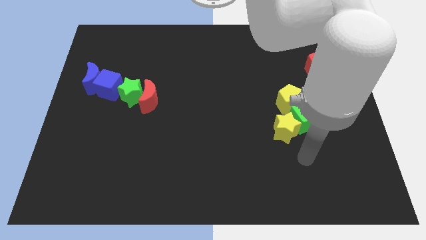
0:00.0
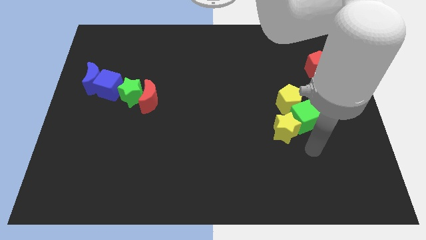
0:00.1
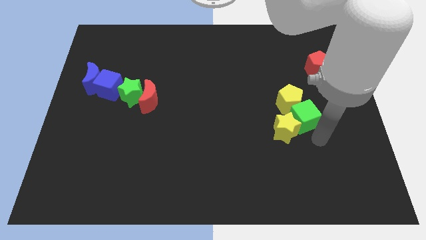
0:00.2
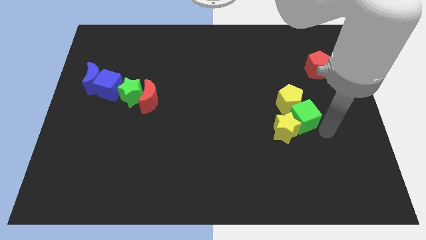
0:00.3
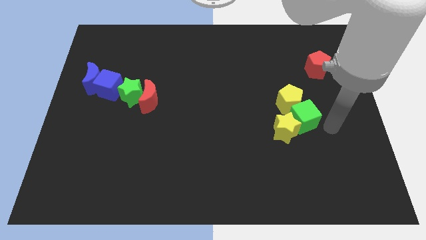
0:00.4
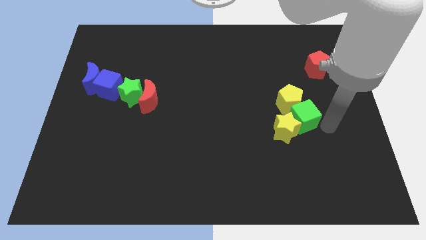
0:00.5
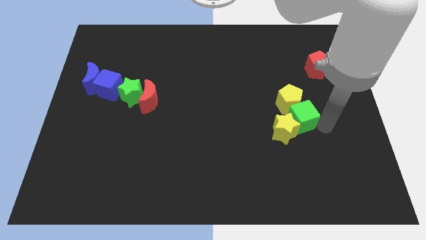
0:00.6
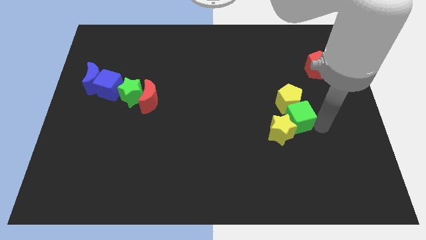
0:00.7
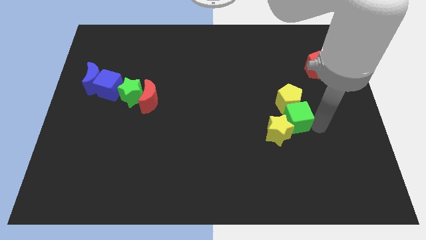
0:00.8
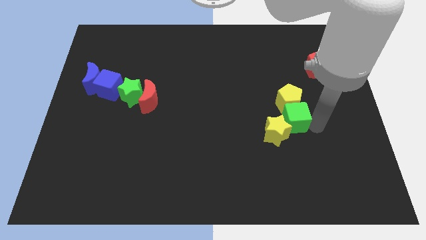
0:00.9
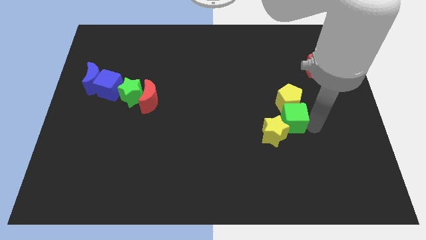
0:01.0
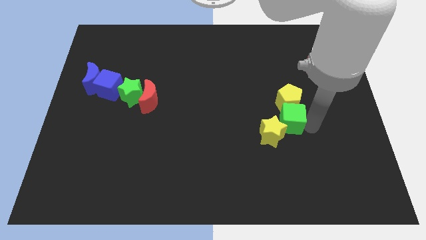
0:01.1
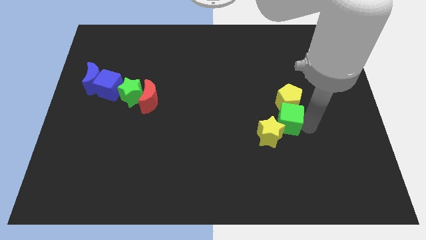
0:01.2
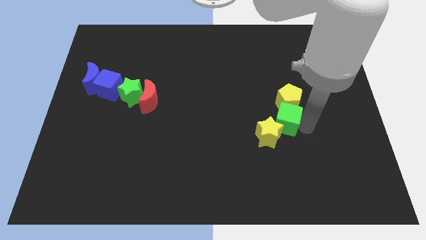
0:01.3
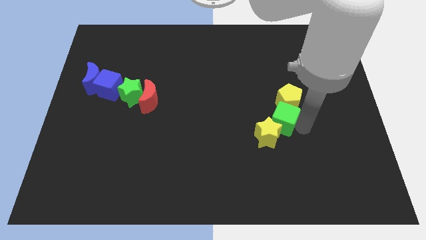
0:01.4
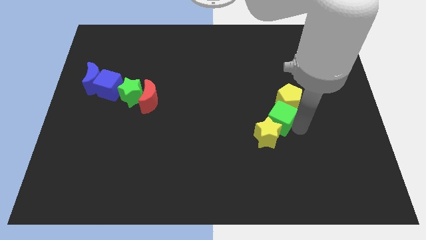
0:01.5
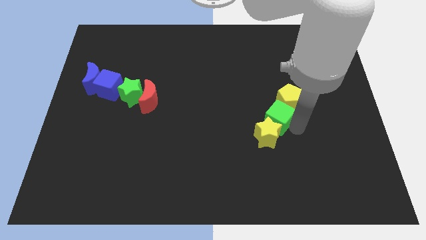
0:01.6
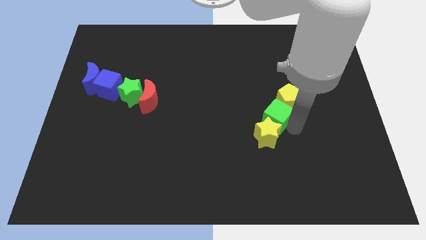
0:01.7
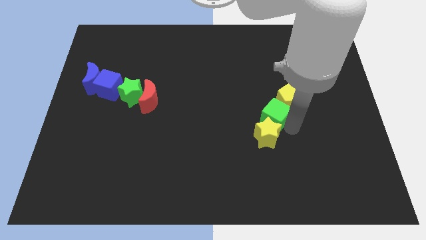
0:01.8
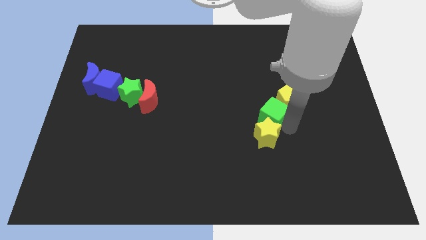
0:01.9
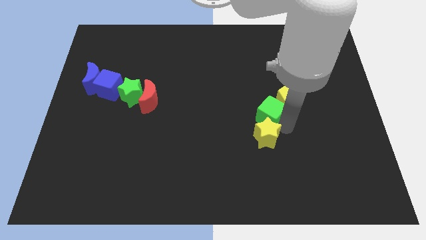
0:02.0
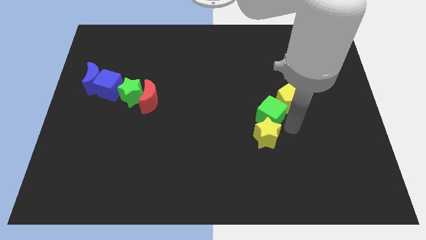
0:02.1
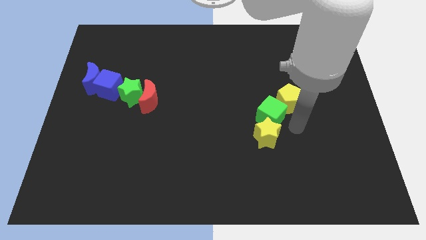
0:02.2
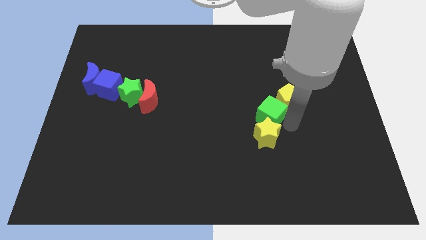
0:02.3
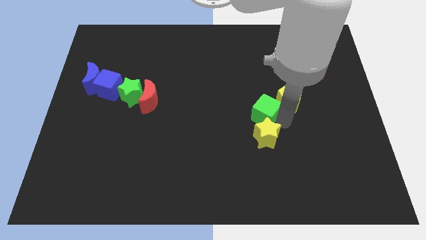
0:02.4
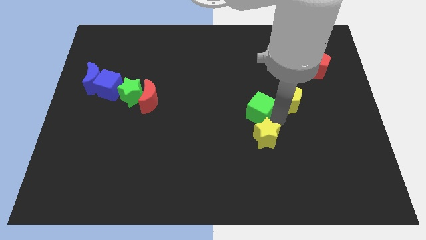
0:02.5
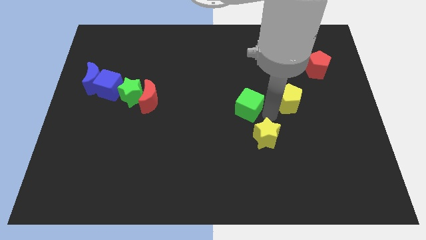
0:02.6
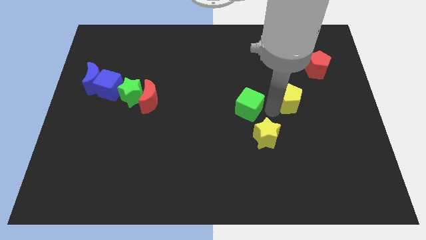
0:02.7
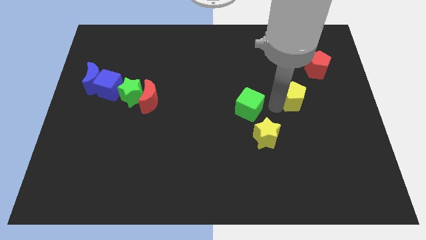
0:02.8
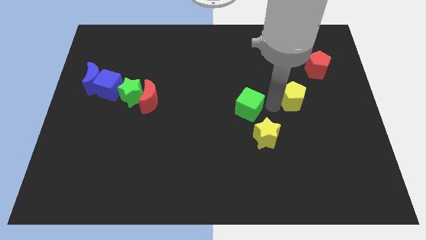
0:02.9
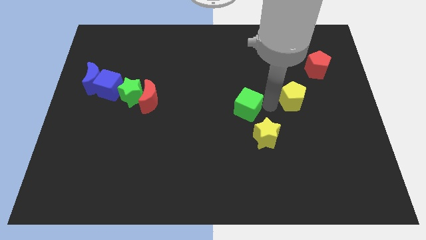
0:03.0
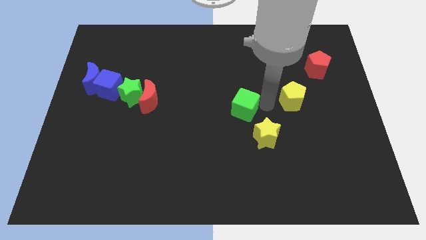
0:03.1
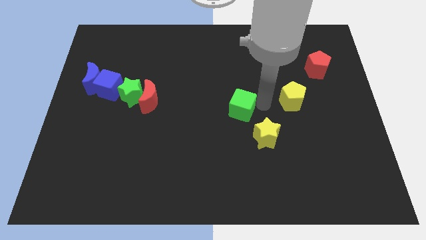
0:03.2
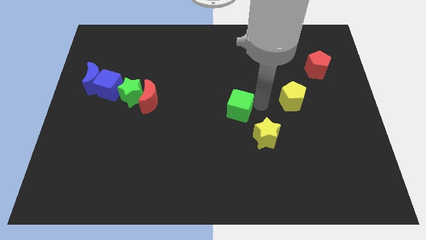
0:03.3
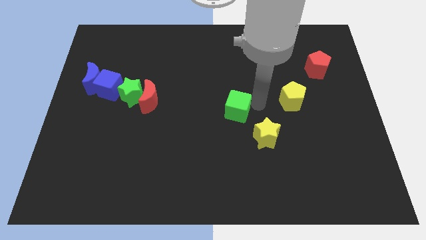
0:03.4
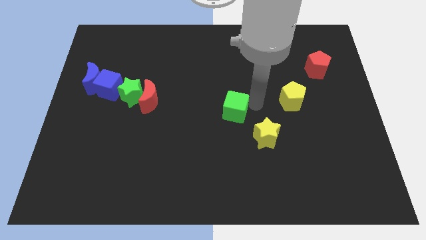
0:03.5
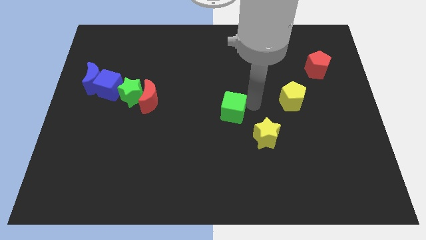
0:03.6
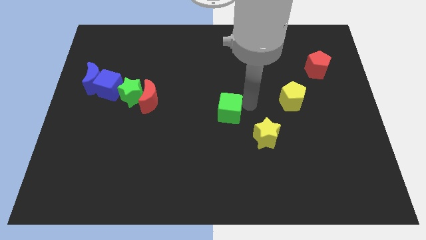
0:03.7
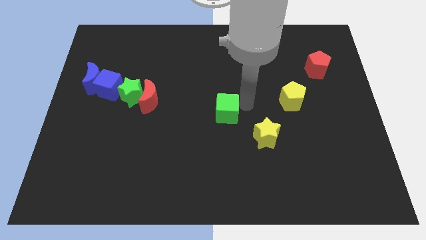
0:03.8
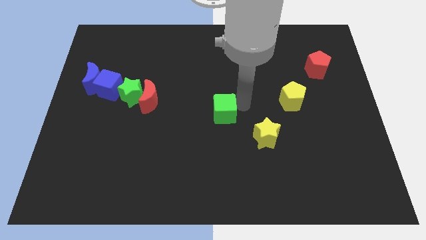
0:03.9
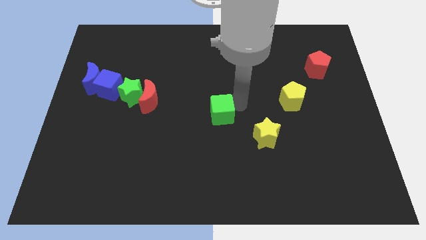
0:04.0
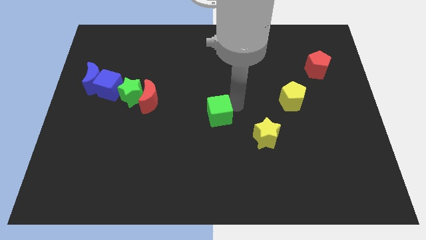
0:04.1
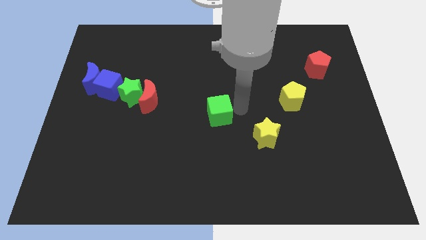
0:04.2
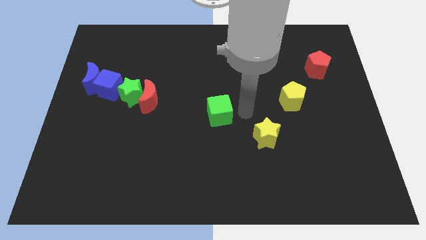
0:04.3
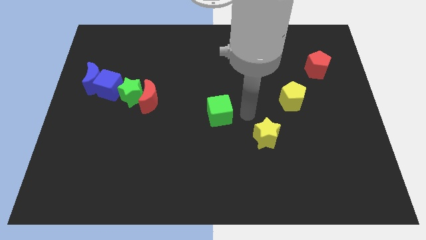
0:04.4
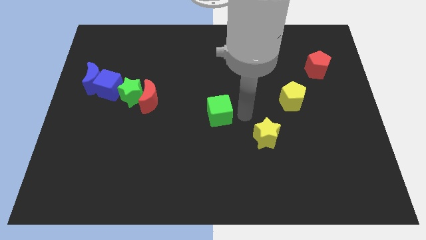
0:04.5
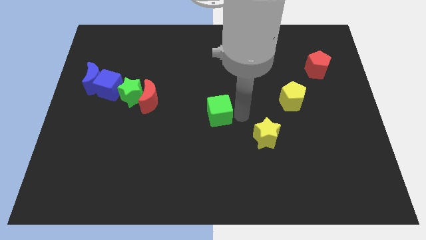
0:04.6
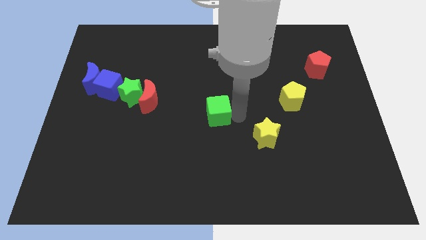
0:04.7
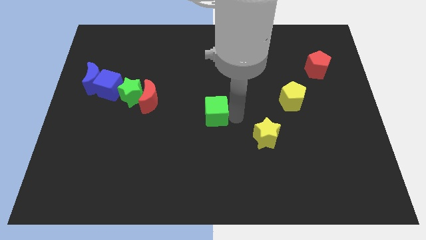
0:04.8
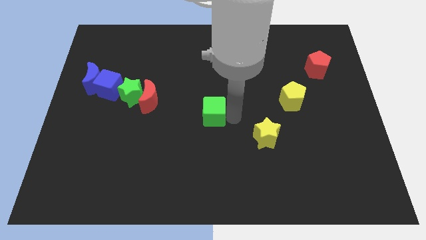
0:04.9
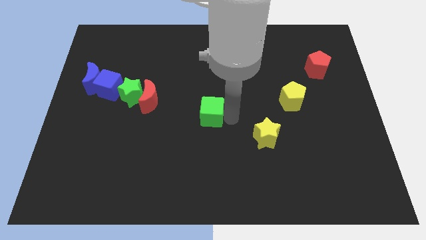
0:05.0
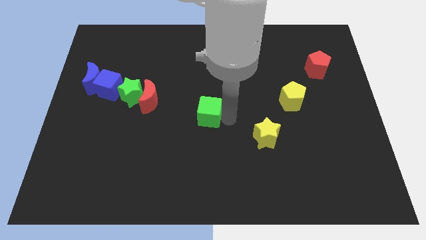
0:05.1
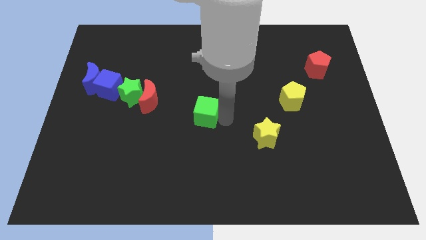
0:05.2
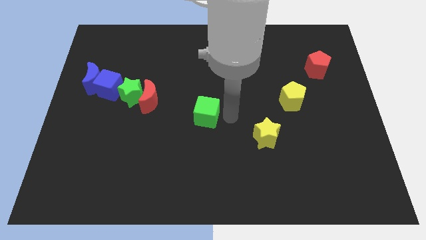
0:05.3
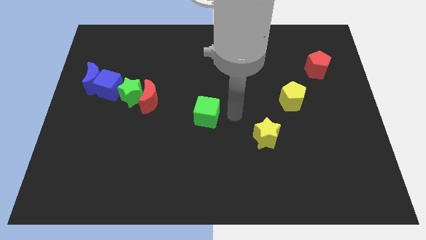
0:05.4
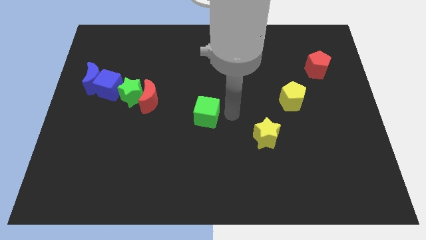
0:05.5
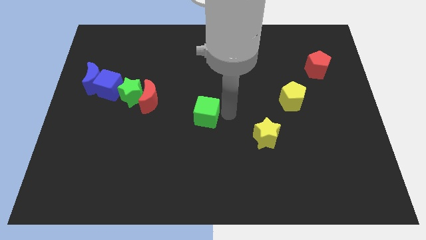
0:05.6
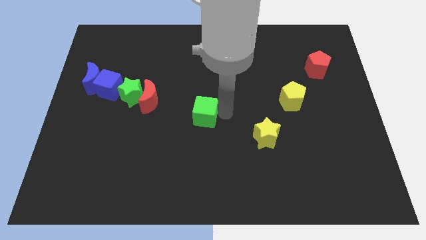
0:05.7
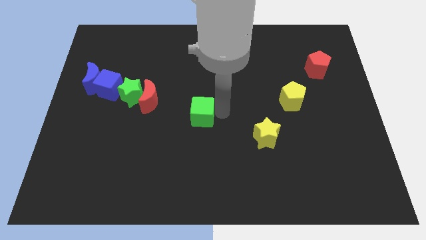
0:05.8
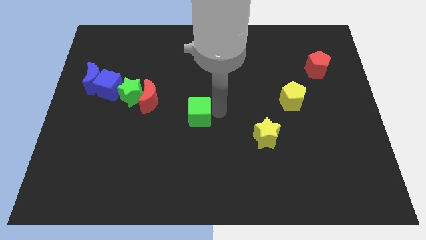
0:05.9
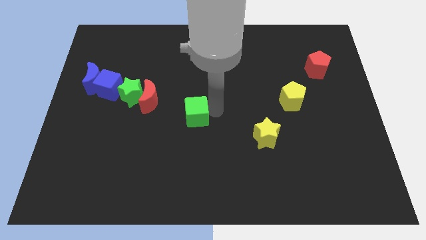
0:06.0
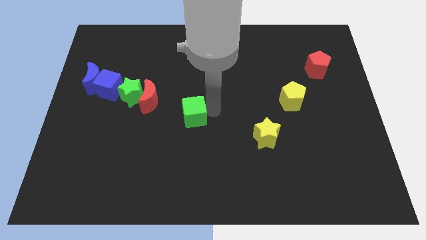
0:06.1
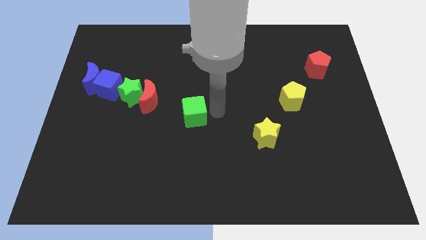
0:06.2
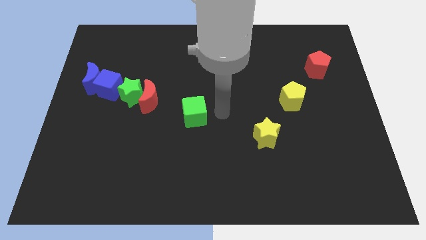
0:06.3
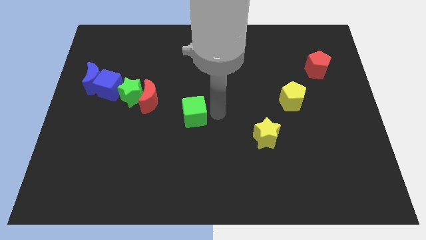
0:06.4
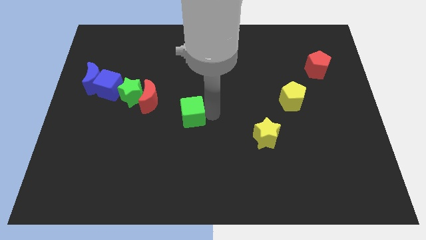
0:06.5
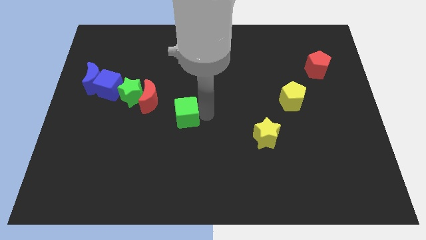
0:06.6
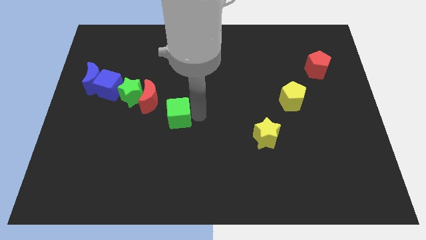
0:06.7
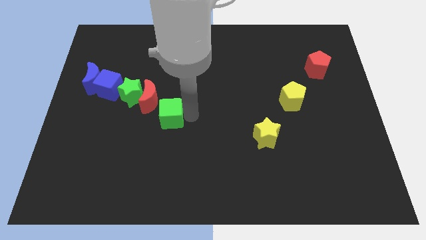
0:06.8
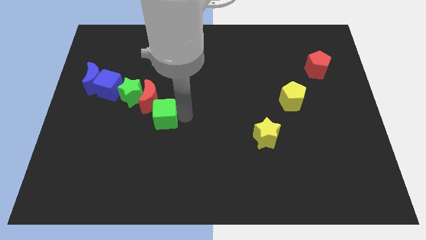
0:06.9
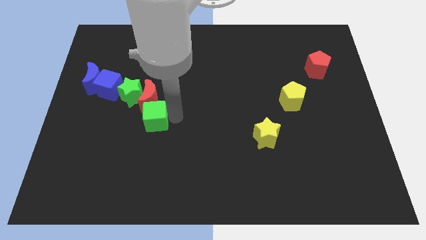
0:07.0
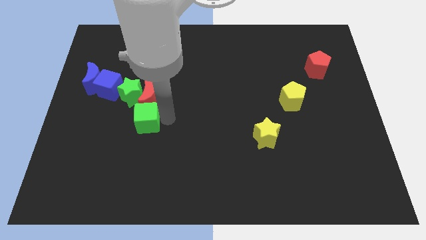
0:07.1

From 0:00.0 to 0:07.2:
push the green cube to the bottom left side of the red moon
